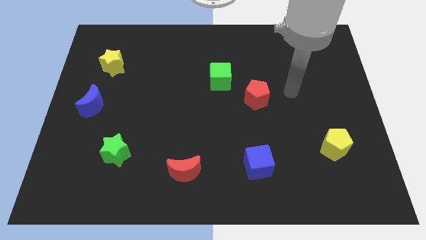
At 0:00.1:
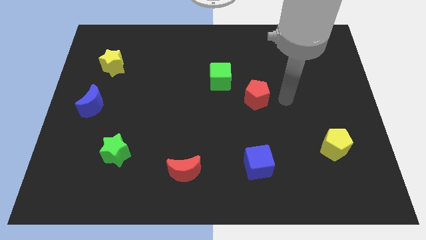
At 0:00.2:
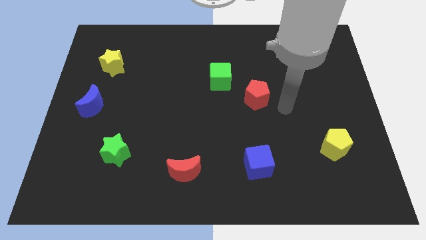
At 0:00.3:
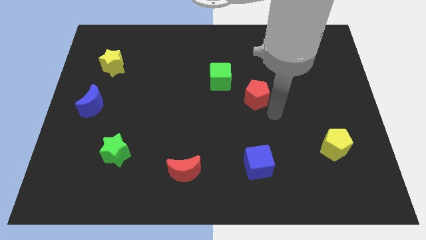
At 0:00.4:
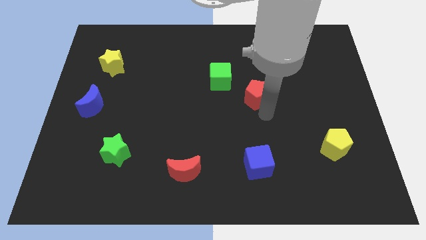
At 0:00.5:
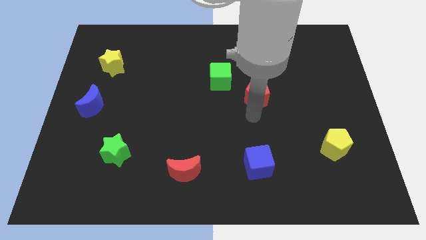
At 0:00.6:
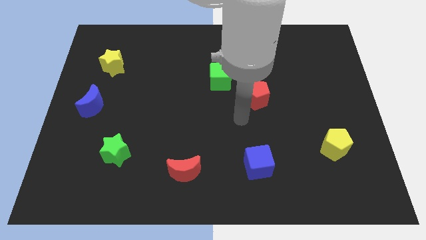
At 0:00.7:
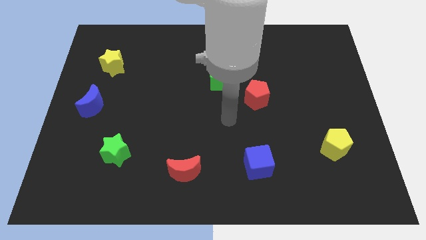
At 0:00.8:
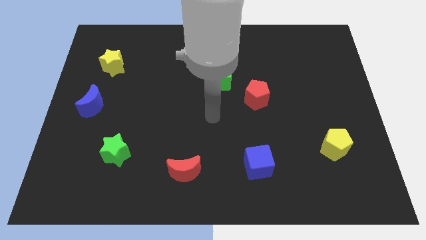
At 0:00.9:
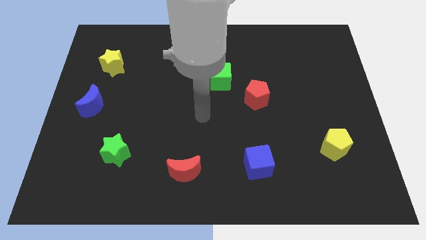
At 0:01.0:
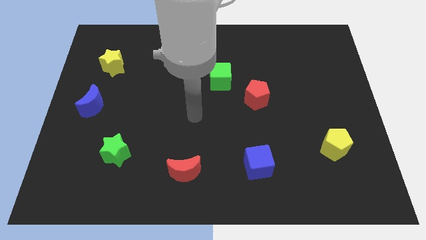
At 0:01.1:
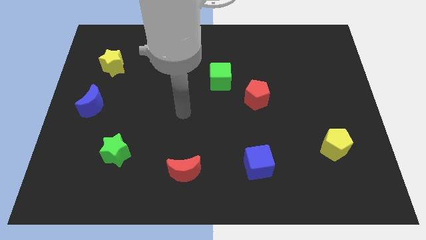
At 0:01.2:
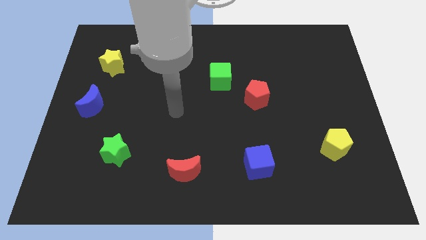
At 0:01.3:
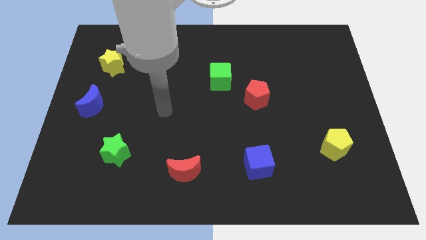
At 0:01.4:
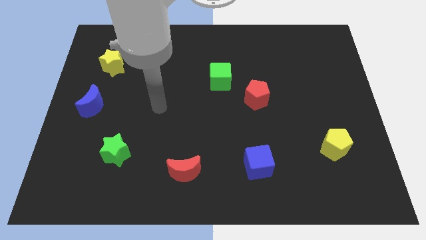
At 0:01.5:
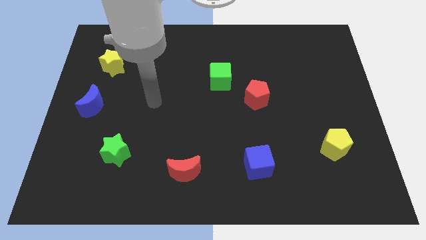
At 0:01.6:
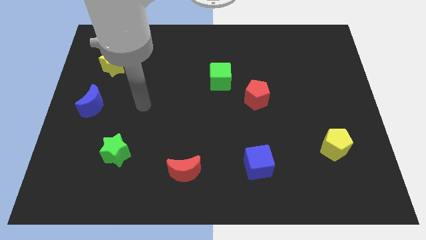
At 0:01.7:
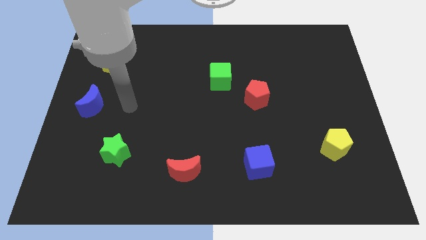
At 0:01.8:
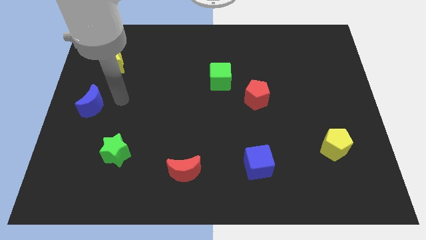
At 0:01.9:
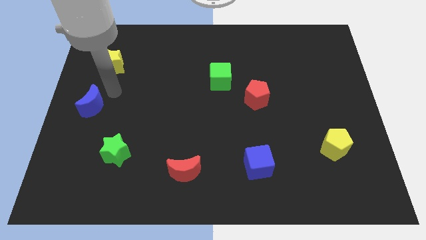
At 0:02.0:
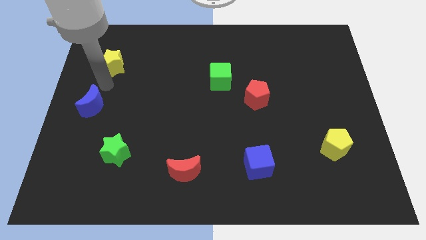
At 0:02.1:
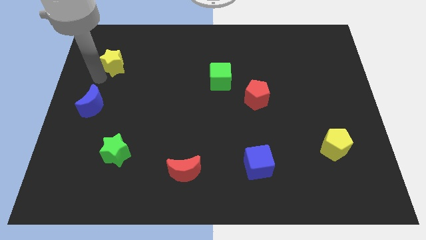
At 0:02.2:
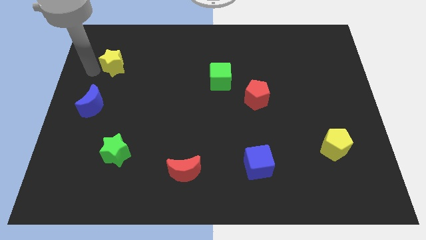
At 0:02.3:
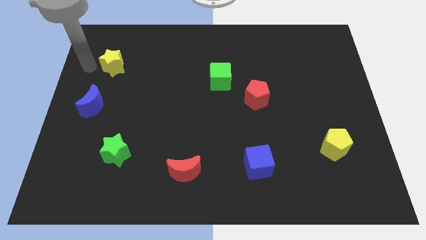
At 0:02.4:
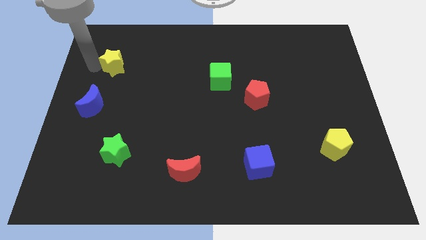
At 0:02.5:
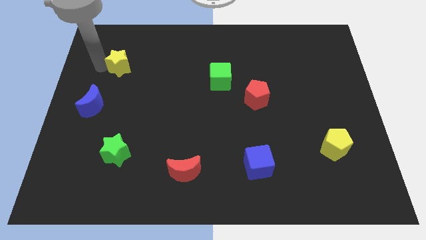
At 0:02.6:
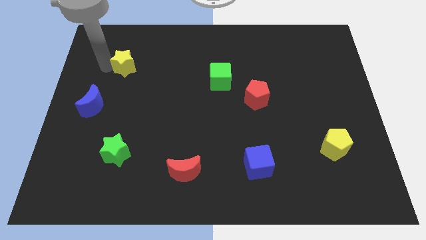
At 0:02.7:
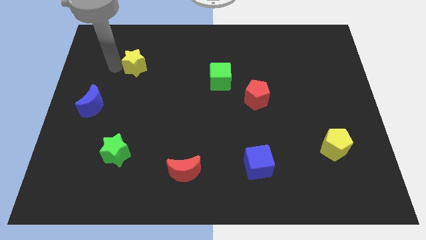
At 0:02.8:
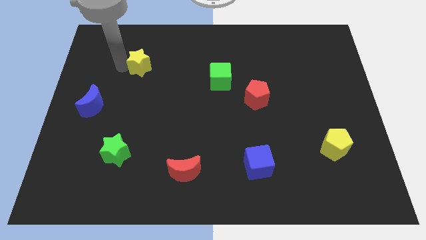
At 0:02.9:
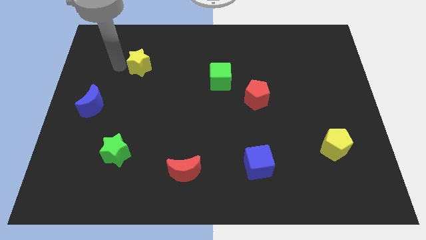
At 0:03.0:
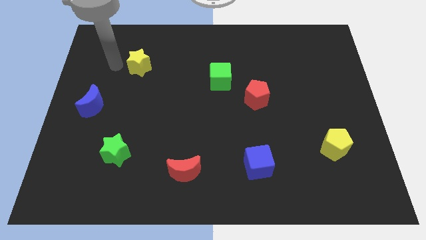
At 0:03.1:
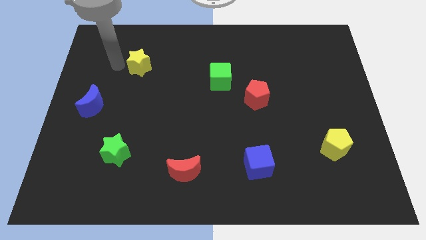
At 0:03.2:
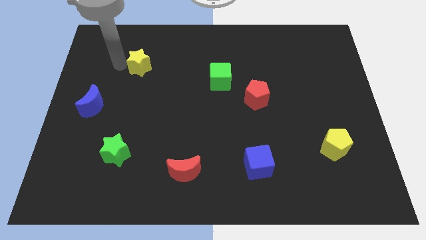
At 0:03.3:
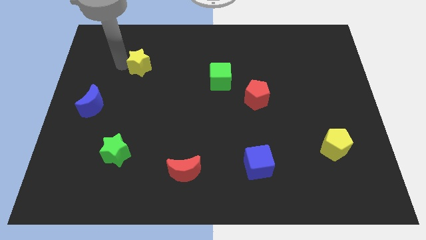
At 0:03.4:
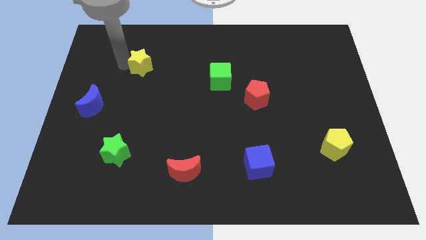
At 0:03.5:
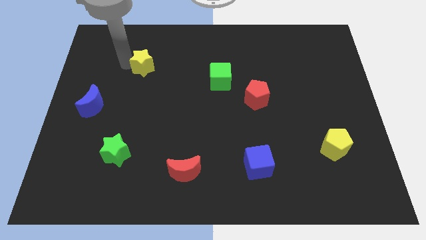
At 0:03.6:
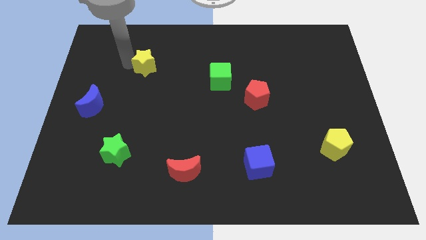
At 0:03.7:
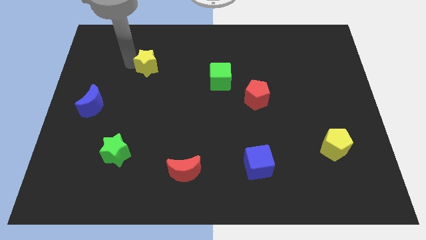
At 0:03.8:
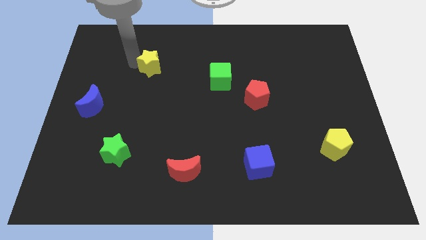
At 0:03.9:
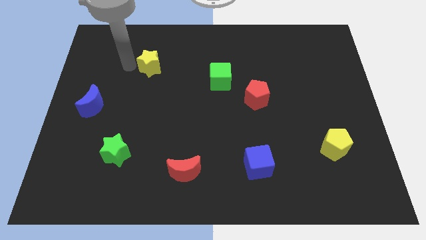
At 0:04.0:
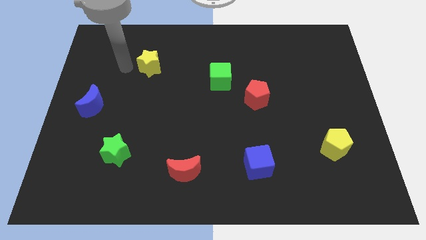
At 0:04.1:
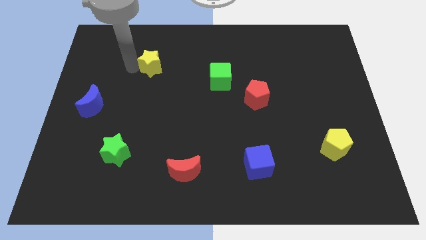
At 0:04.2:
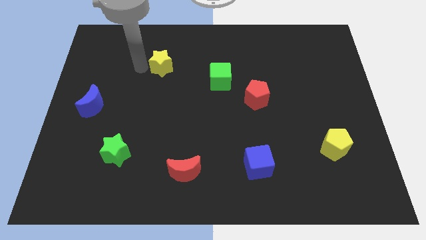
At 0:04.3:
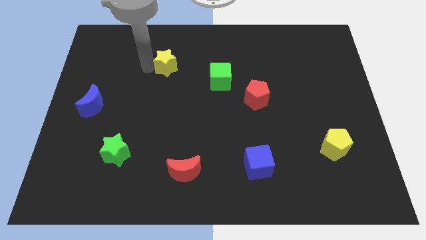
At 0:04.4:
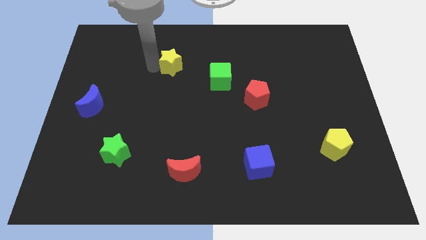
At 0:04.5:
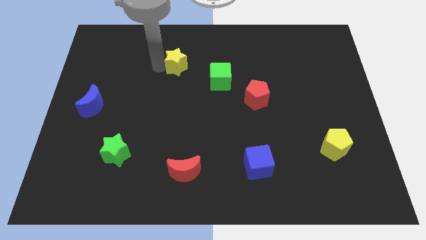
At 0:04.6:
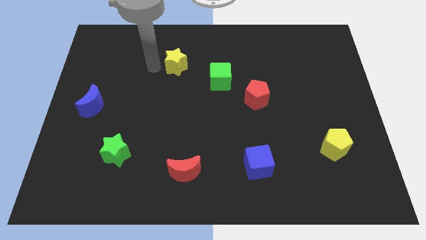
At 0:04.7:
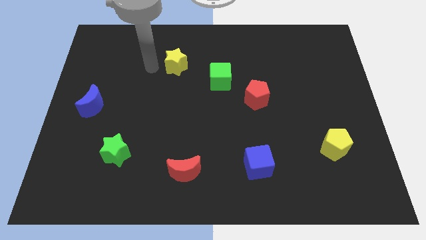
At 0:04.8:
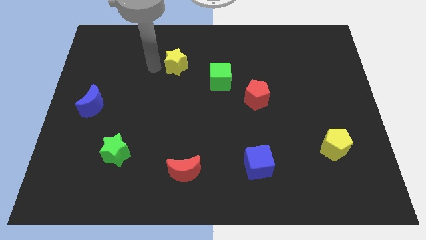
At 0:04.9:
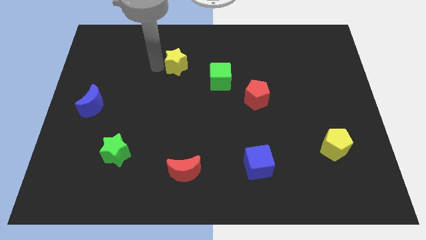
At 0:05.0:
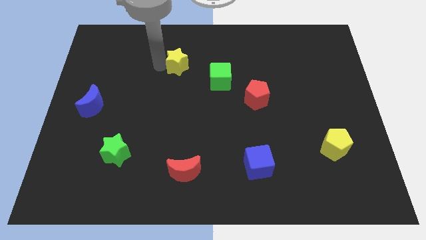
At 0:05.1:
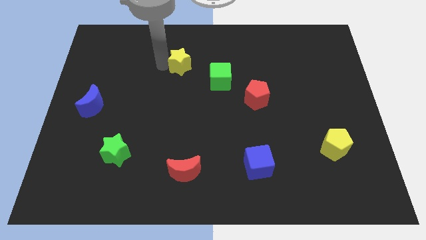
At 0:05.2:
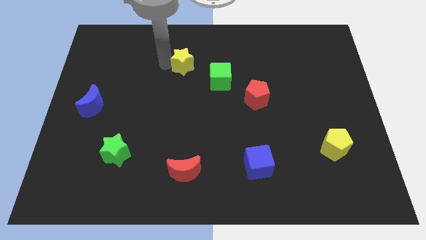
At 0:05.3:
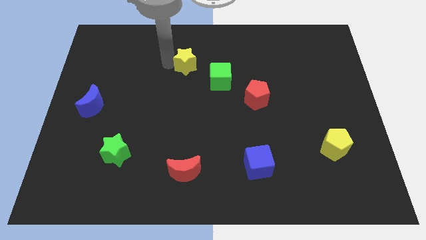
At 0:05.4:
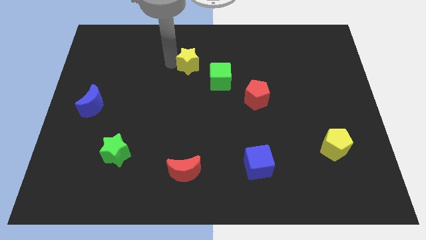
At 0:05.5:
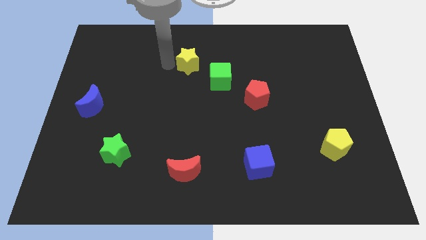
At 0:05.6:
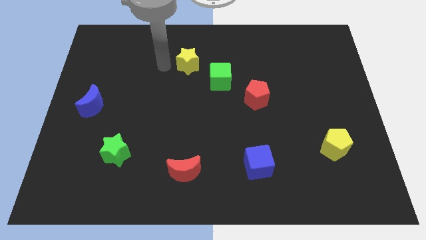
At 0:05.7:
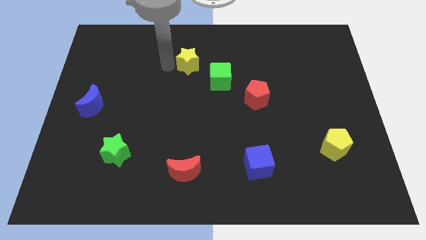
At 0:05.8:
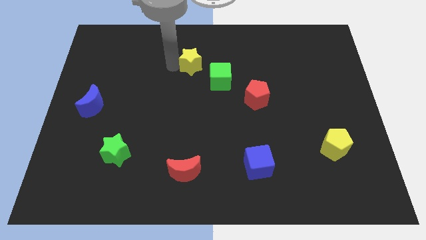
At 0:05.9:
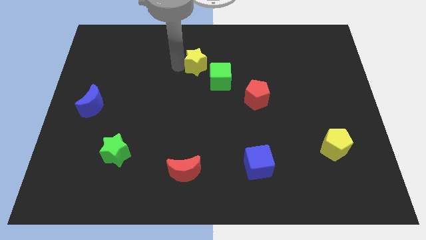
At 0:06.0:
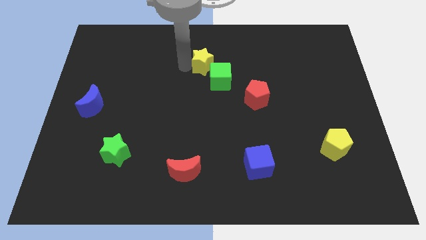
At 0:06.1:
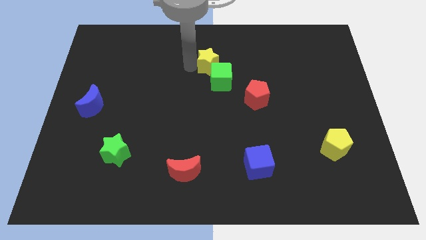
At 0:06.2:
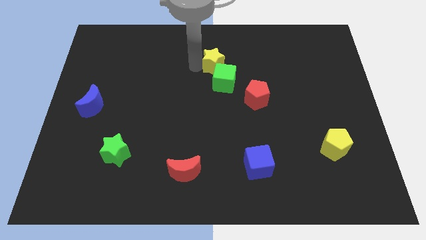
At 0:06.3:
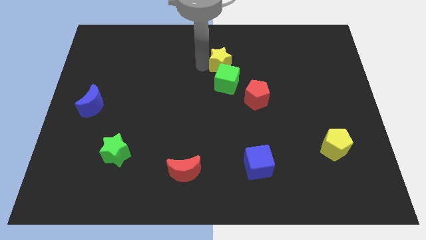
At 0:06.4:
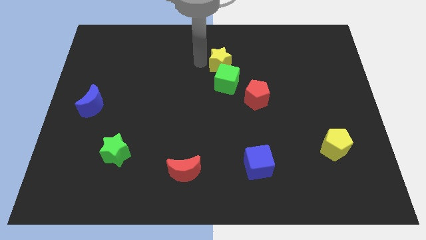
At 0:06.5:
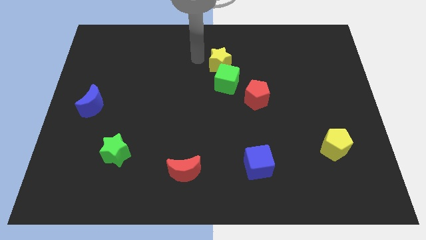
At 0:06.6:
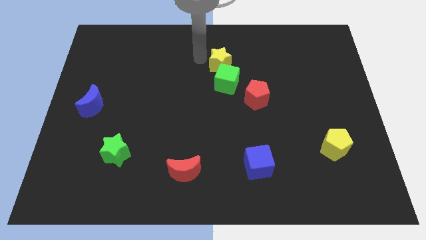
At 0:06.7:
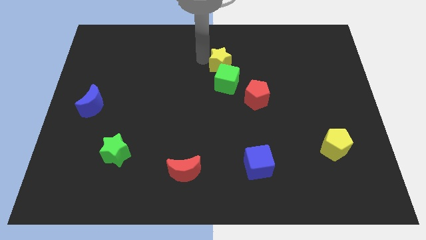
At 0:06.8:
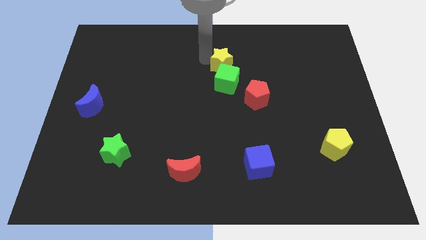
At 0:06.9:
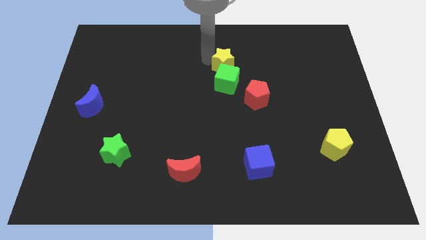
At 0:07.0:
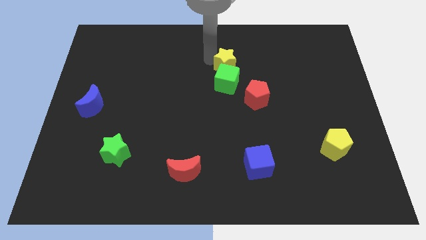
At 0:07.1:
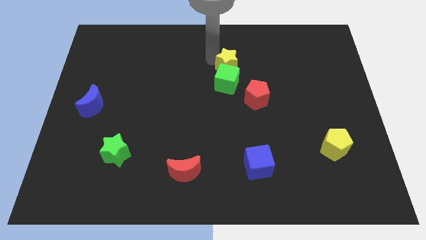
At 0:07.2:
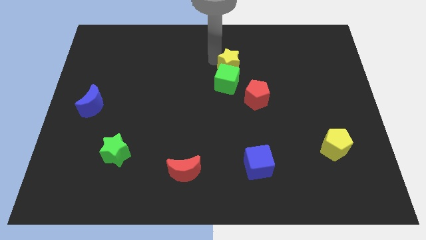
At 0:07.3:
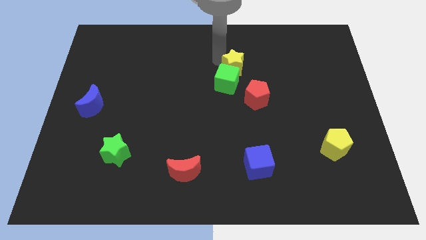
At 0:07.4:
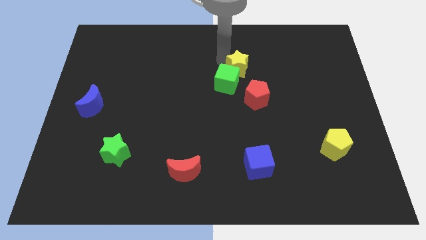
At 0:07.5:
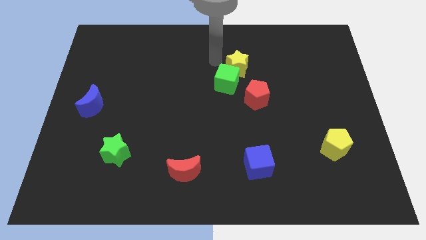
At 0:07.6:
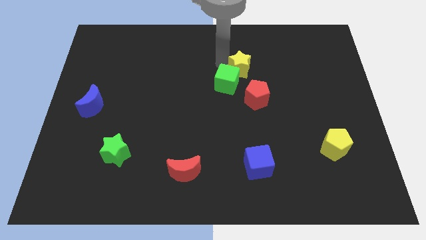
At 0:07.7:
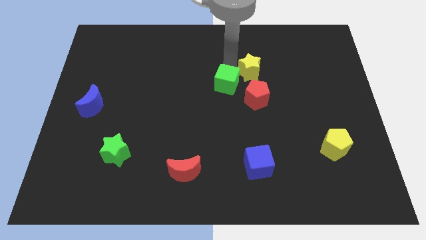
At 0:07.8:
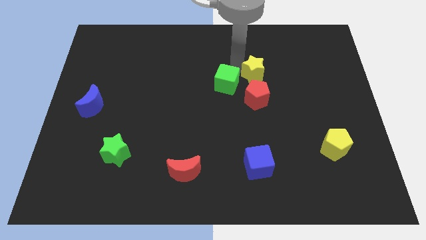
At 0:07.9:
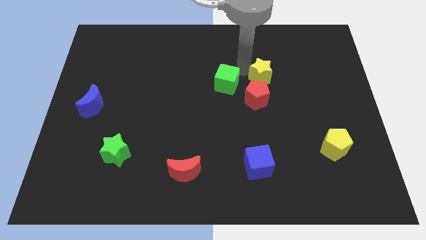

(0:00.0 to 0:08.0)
push the yellow star diagonally up and to the right of the red pentagon
